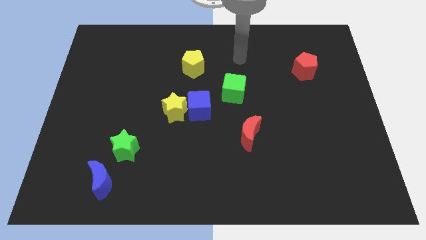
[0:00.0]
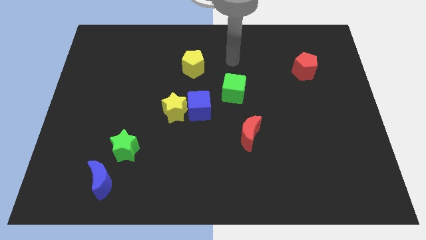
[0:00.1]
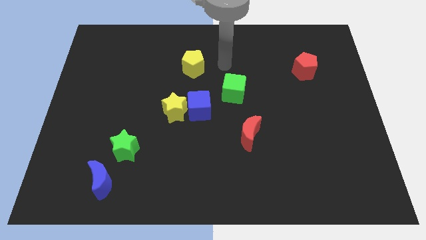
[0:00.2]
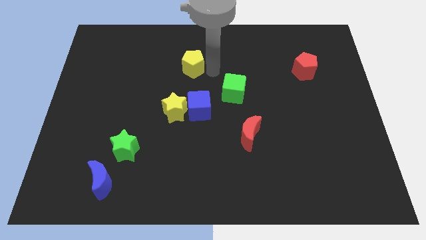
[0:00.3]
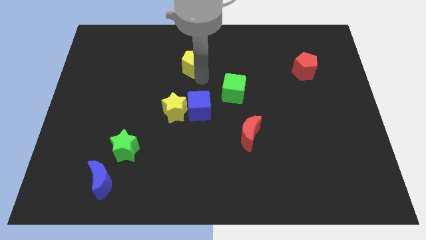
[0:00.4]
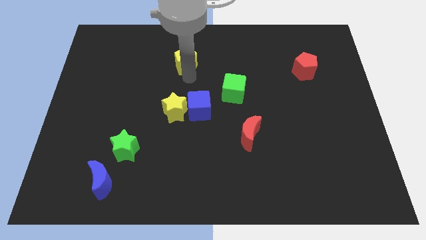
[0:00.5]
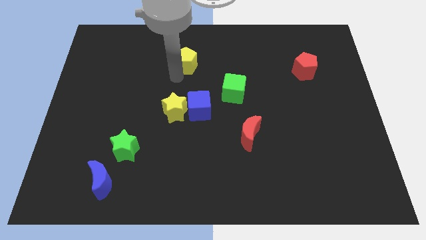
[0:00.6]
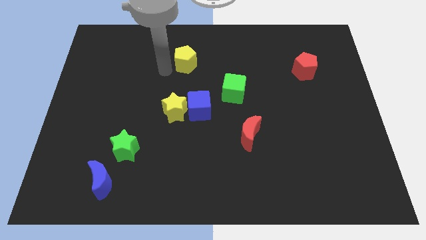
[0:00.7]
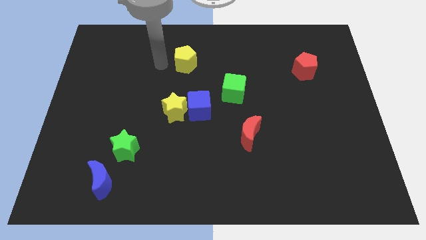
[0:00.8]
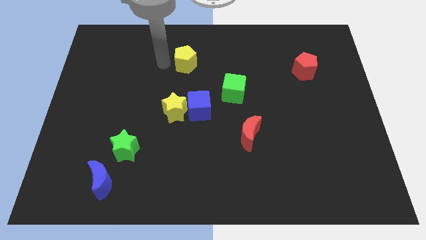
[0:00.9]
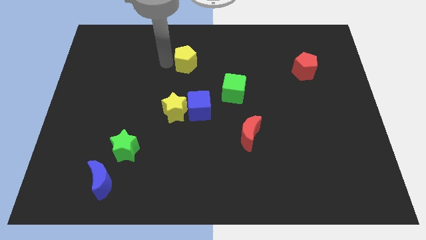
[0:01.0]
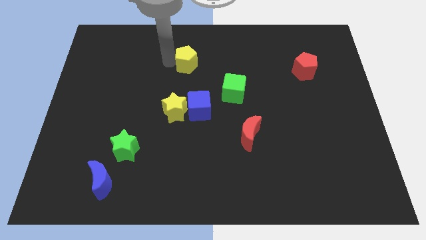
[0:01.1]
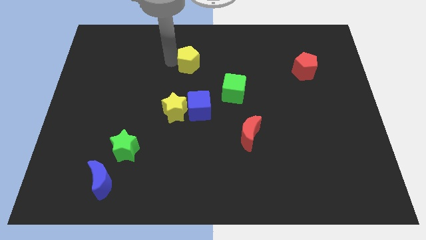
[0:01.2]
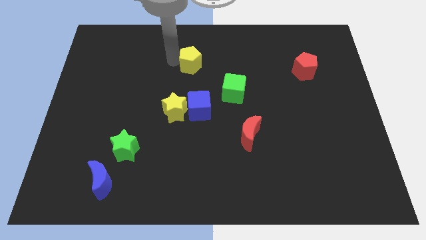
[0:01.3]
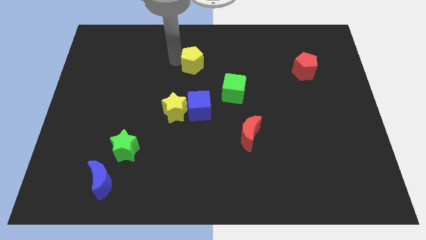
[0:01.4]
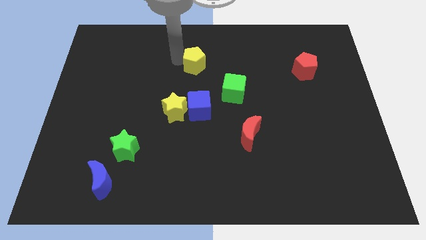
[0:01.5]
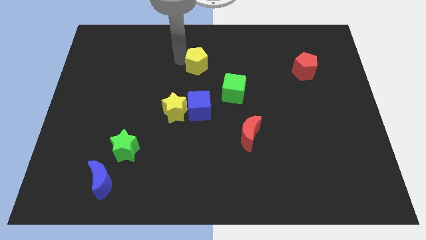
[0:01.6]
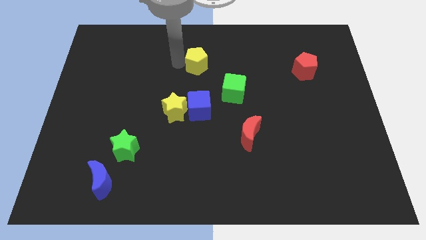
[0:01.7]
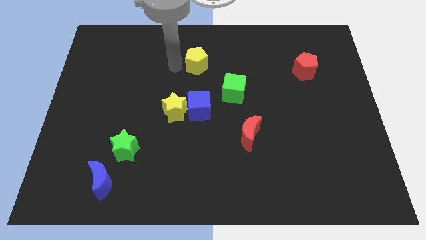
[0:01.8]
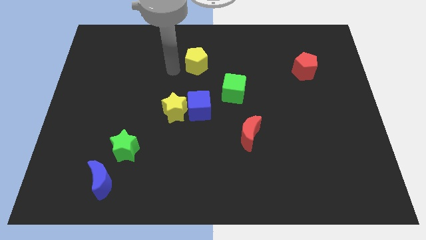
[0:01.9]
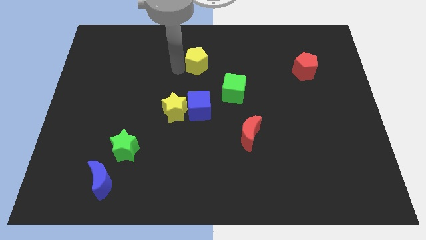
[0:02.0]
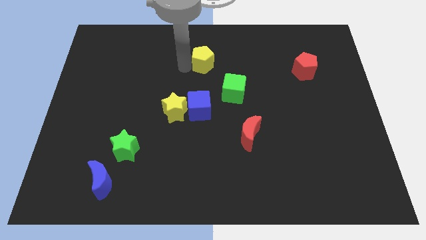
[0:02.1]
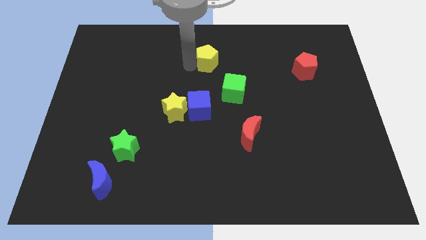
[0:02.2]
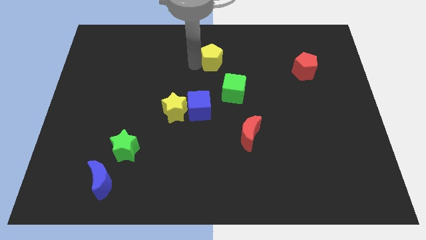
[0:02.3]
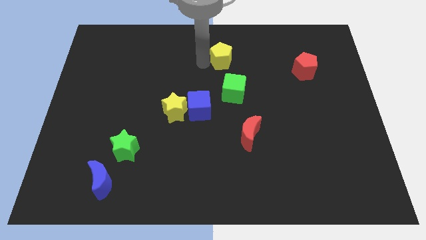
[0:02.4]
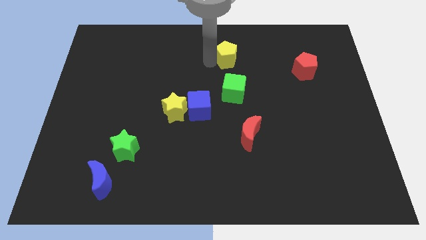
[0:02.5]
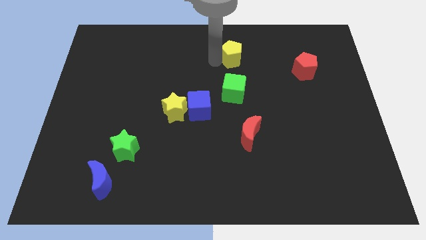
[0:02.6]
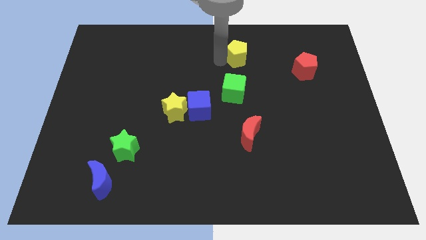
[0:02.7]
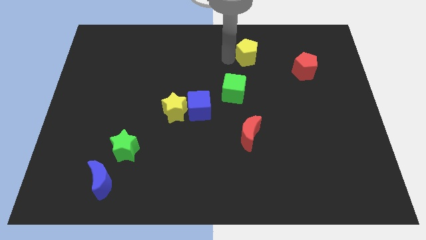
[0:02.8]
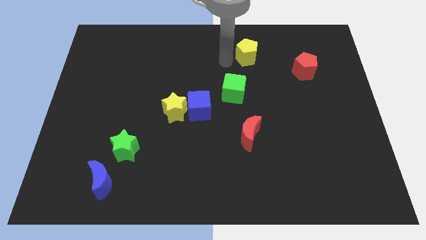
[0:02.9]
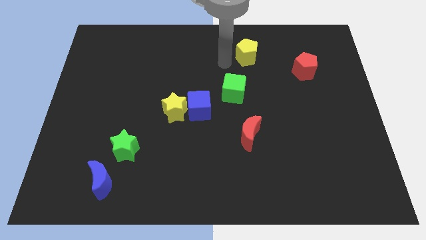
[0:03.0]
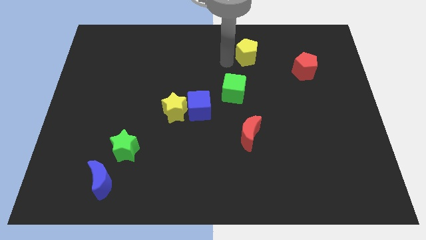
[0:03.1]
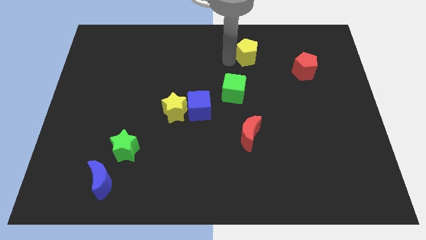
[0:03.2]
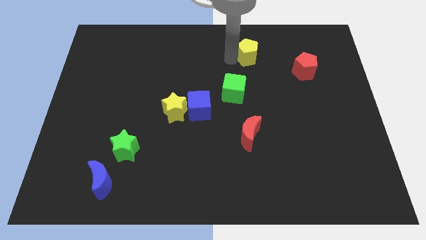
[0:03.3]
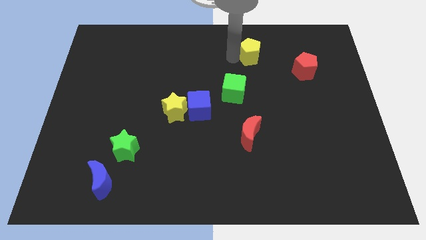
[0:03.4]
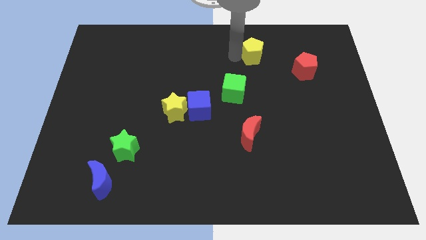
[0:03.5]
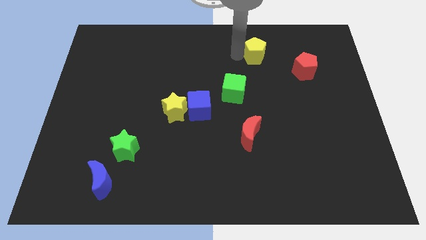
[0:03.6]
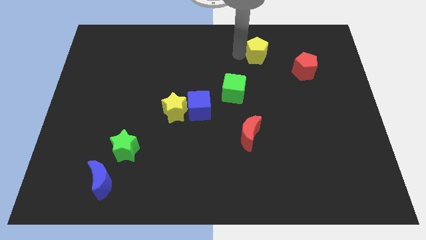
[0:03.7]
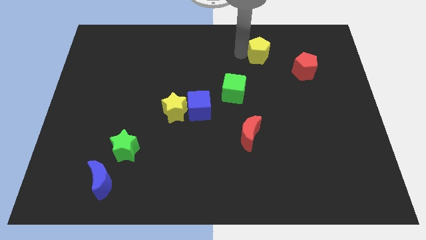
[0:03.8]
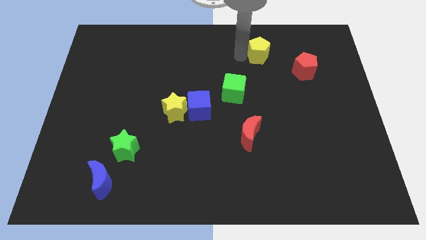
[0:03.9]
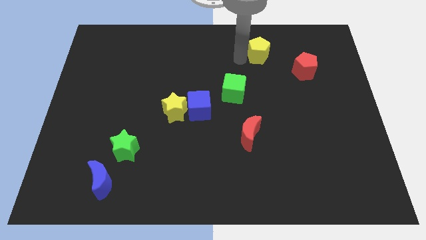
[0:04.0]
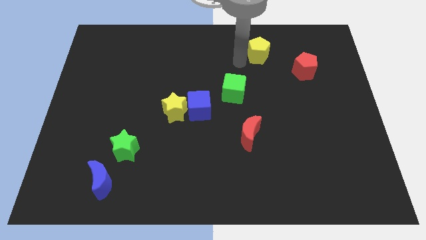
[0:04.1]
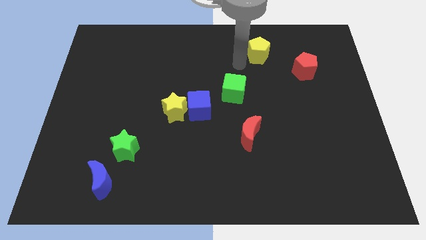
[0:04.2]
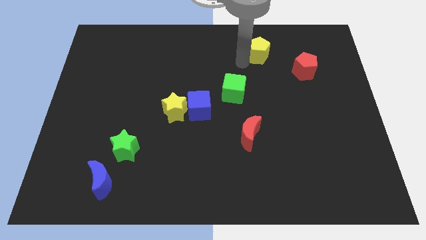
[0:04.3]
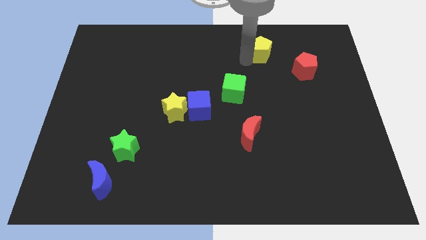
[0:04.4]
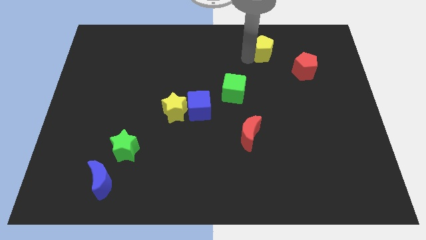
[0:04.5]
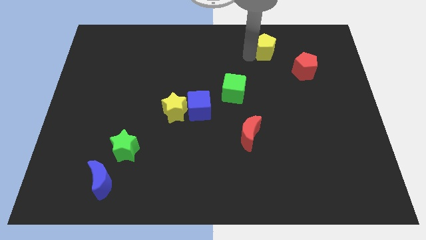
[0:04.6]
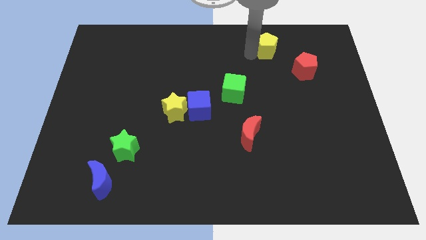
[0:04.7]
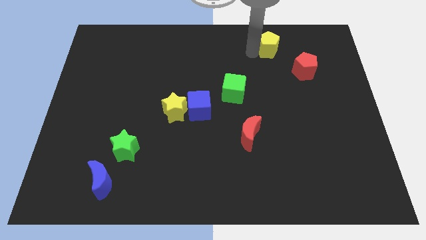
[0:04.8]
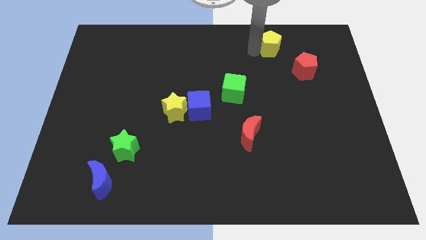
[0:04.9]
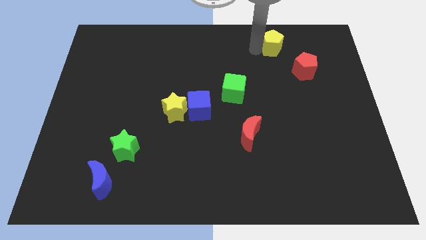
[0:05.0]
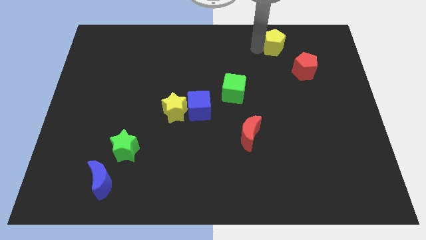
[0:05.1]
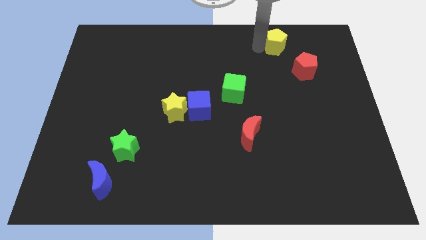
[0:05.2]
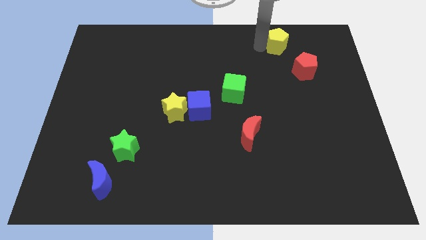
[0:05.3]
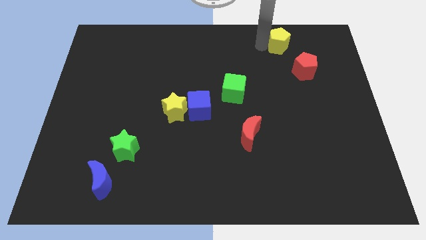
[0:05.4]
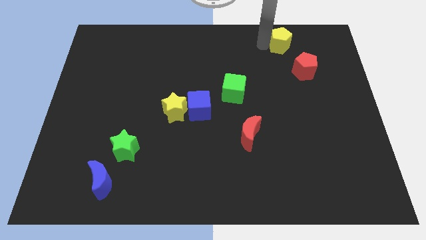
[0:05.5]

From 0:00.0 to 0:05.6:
push the yellow pentagon to the right

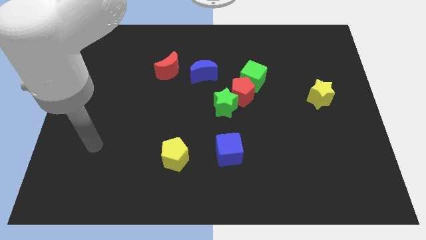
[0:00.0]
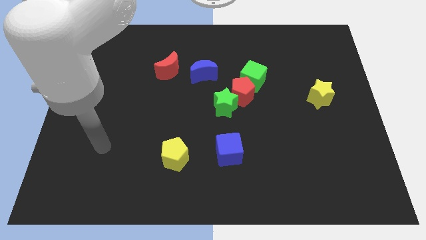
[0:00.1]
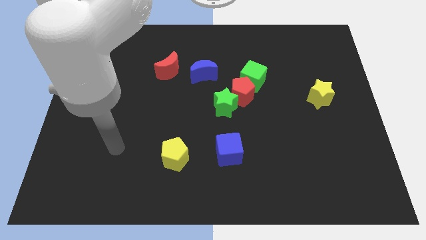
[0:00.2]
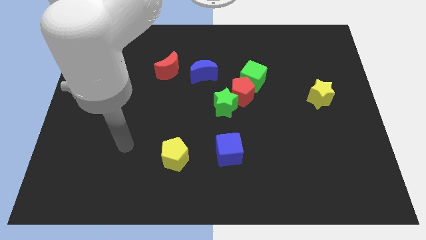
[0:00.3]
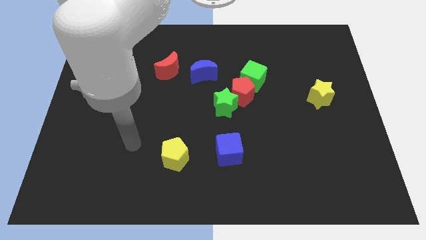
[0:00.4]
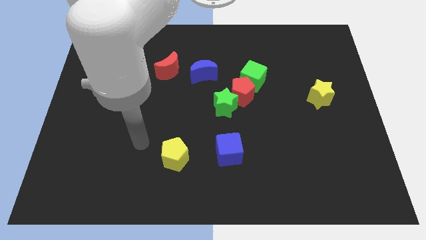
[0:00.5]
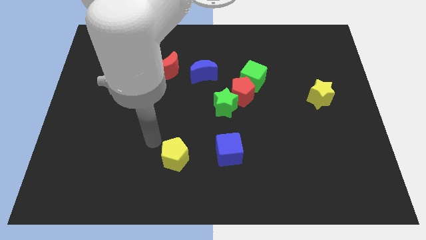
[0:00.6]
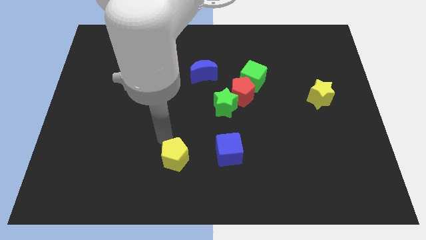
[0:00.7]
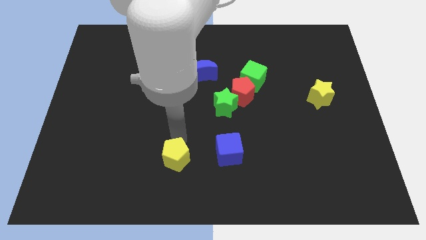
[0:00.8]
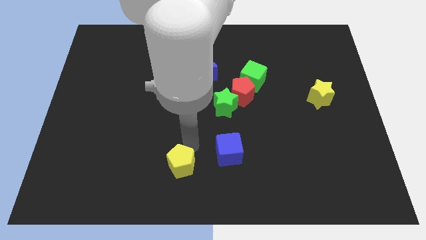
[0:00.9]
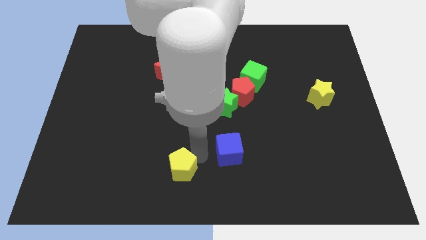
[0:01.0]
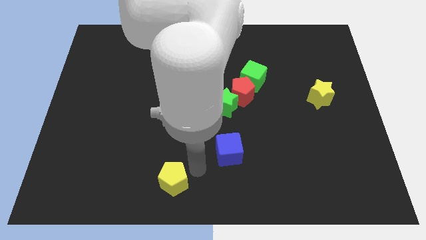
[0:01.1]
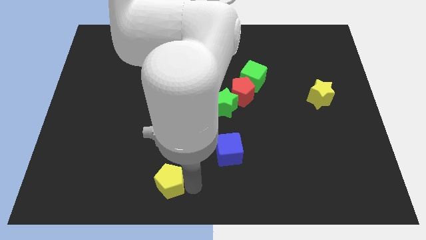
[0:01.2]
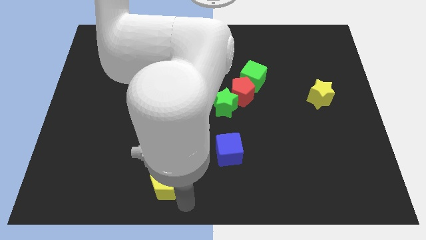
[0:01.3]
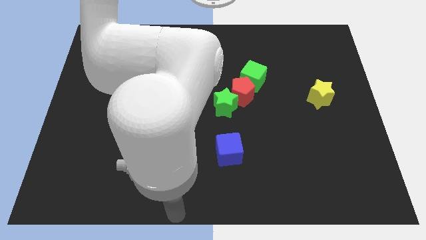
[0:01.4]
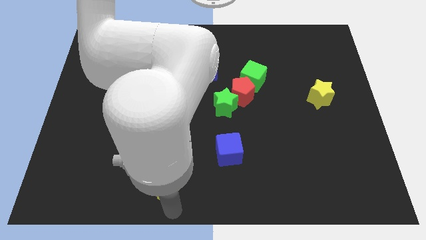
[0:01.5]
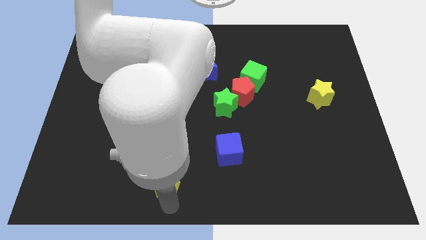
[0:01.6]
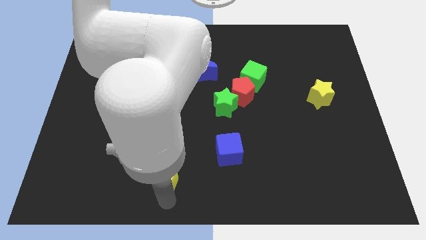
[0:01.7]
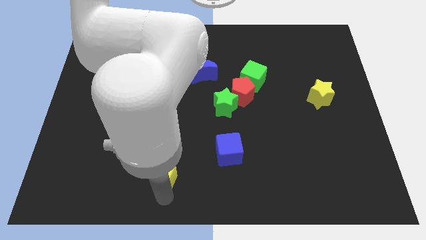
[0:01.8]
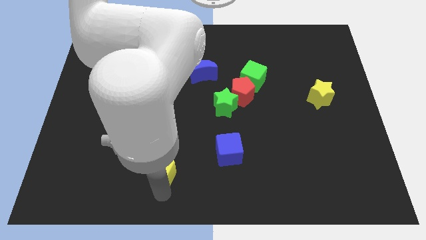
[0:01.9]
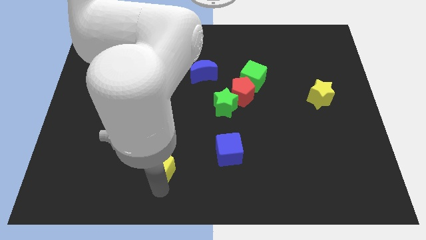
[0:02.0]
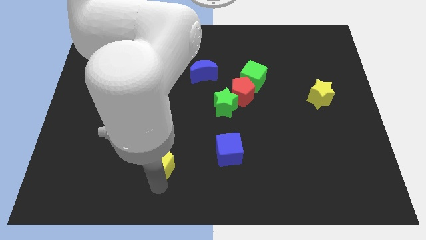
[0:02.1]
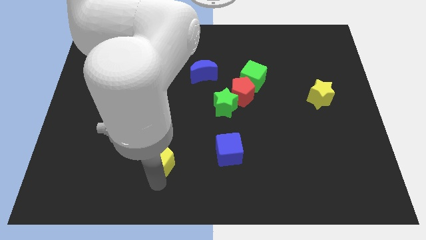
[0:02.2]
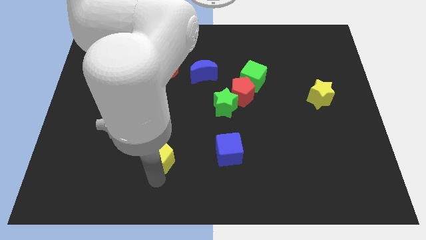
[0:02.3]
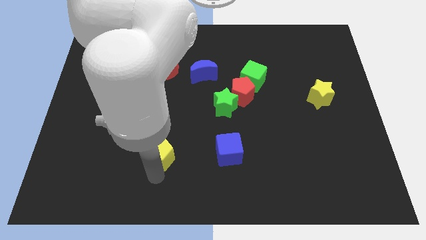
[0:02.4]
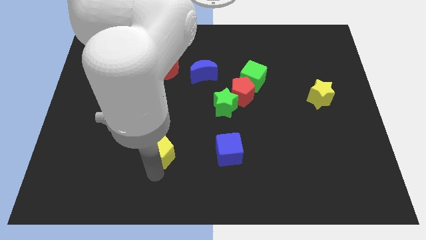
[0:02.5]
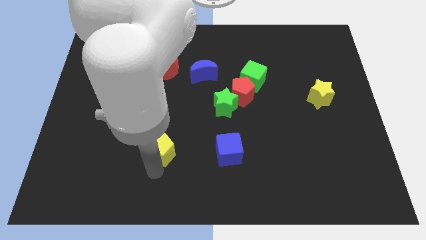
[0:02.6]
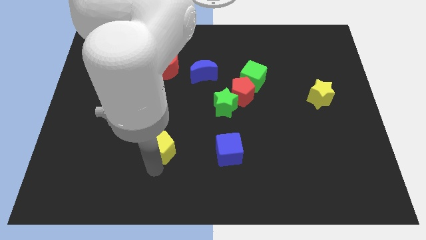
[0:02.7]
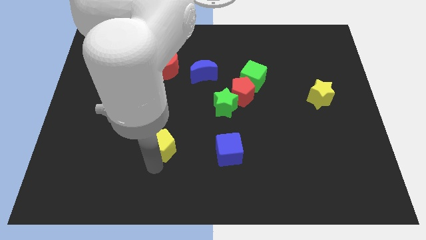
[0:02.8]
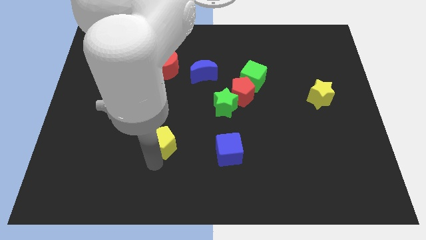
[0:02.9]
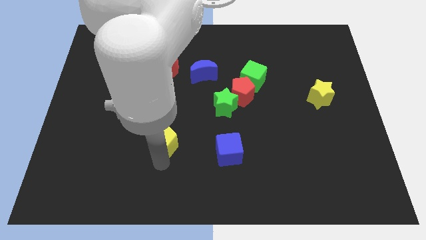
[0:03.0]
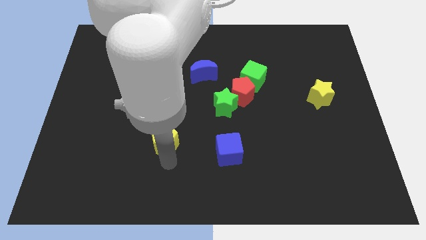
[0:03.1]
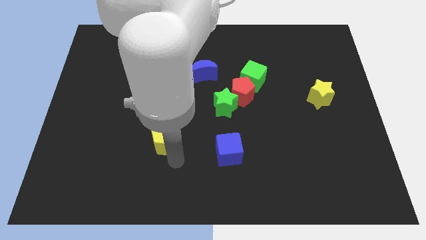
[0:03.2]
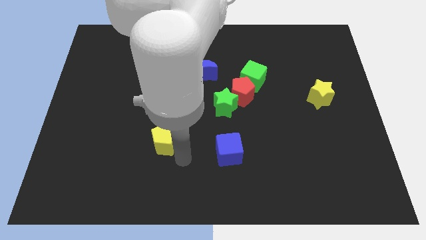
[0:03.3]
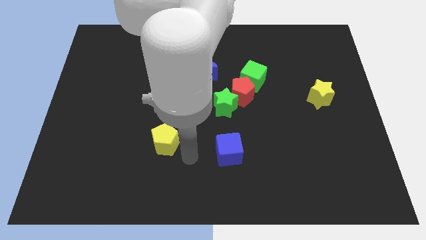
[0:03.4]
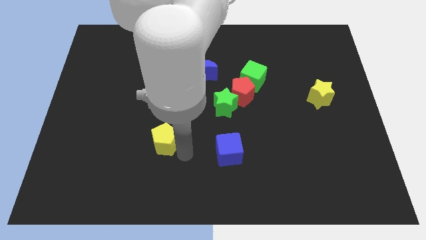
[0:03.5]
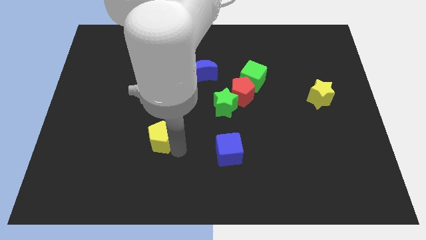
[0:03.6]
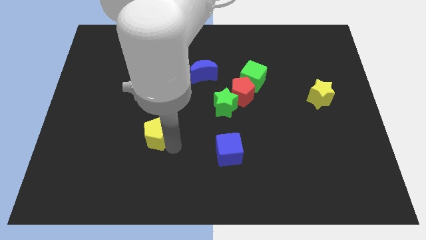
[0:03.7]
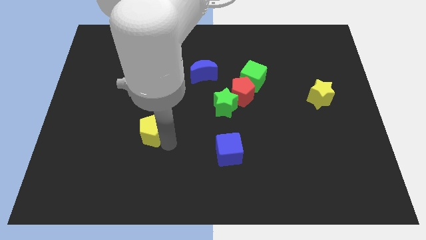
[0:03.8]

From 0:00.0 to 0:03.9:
slide the yellow pentagon a little bit upwards and to the left
